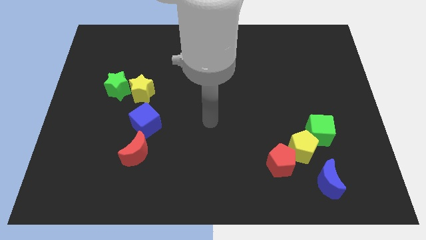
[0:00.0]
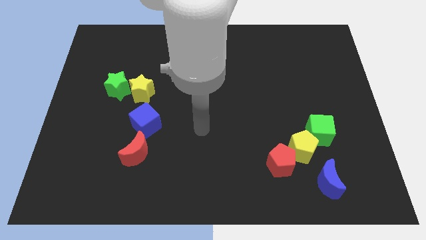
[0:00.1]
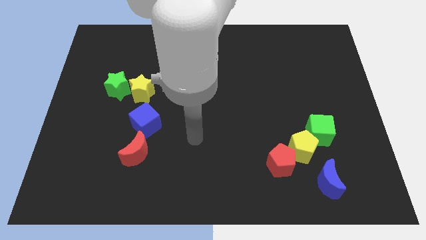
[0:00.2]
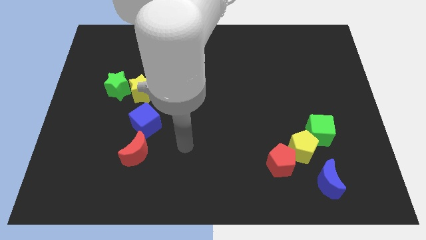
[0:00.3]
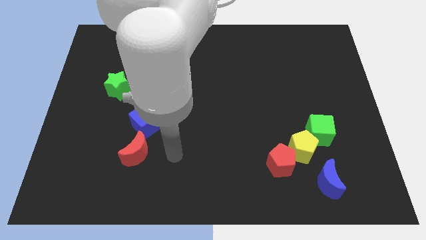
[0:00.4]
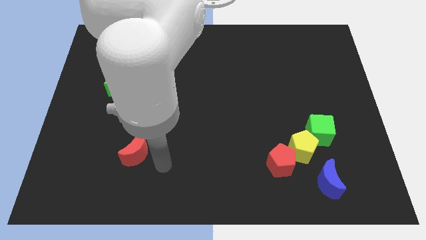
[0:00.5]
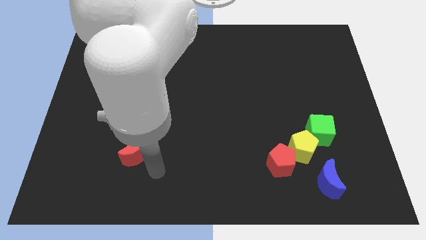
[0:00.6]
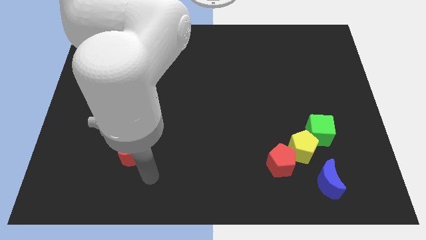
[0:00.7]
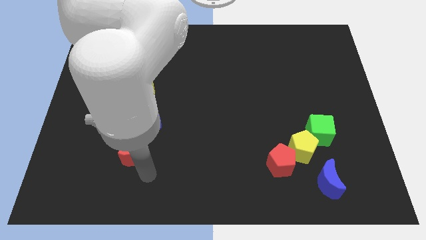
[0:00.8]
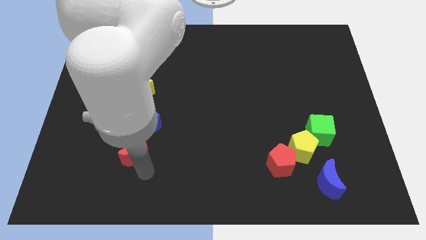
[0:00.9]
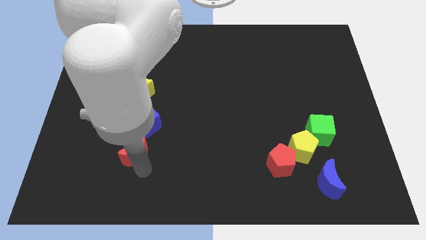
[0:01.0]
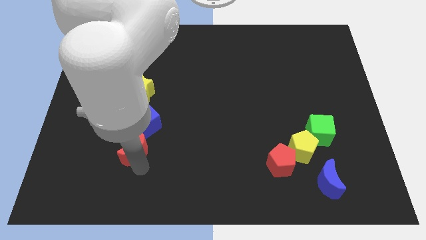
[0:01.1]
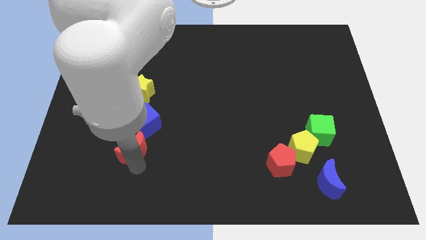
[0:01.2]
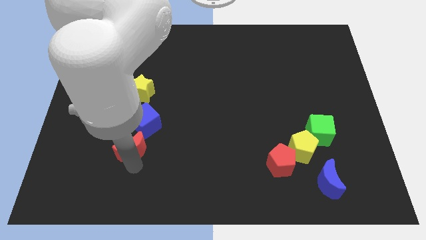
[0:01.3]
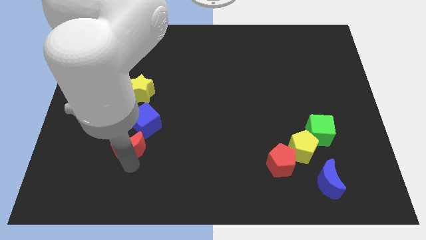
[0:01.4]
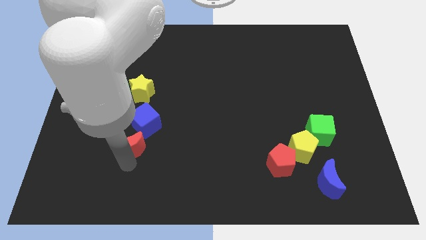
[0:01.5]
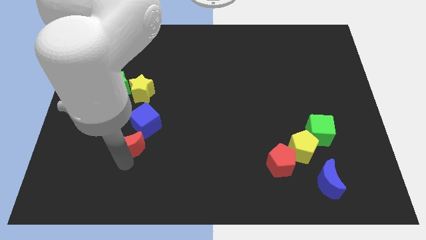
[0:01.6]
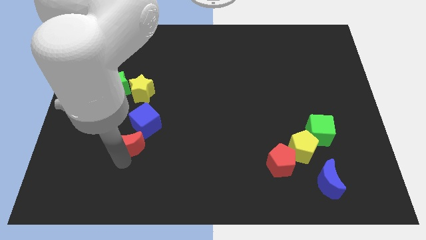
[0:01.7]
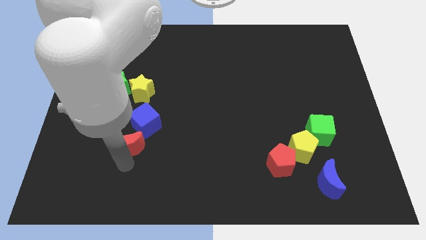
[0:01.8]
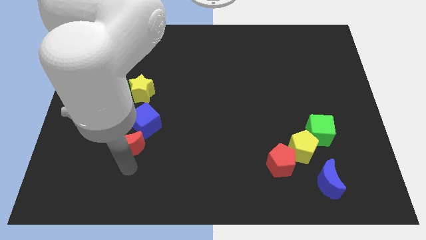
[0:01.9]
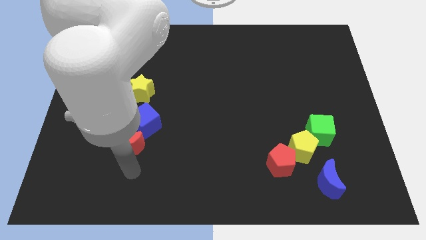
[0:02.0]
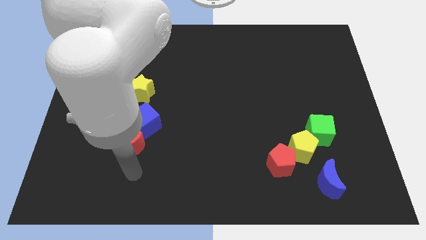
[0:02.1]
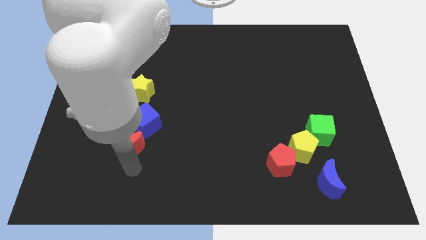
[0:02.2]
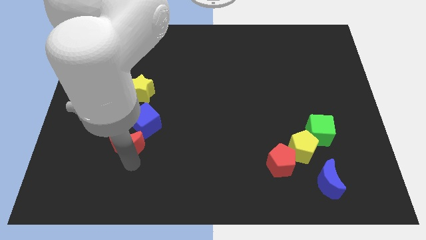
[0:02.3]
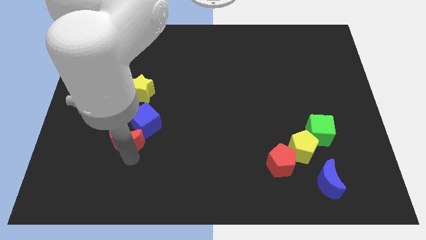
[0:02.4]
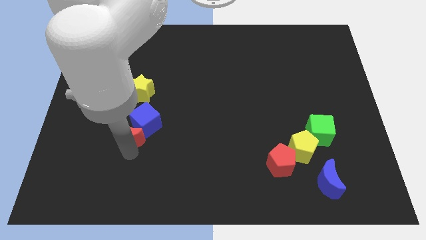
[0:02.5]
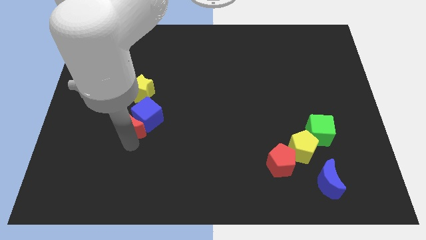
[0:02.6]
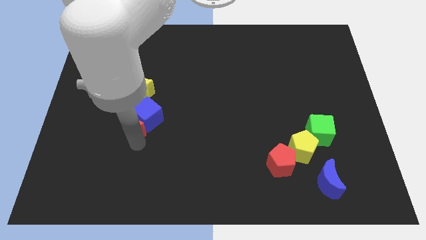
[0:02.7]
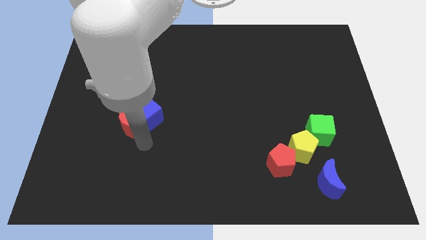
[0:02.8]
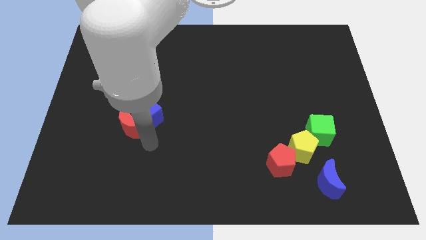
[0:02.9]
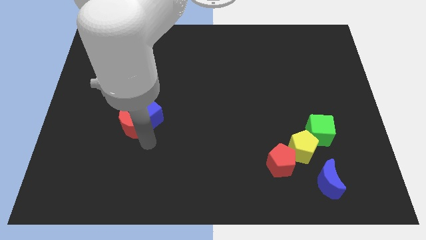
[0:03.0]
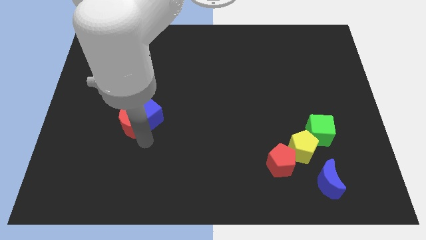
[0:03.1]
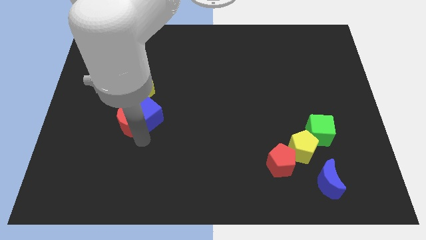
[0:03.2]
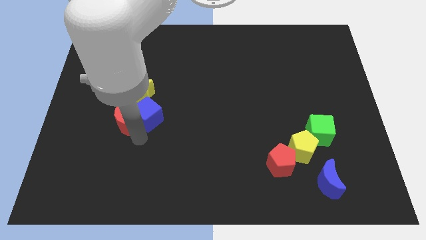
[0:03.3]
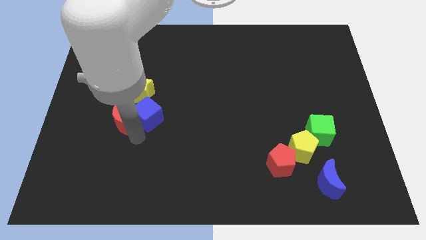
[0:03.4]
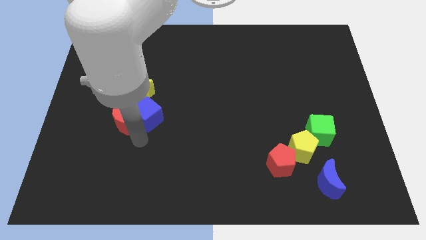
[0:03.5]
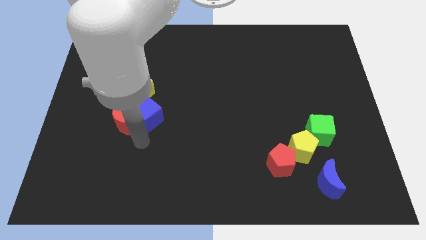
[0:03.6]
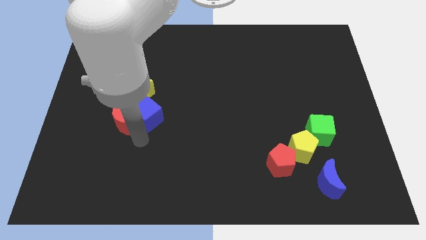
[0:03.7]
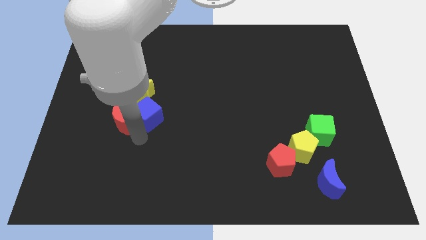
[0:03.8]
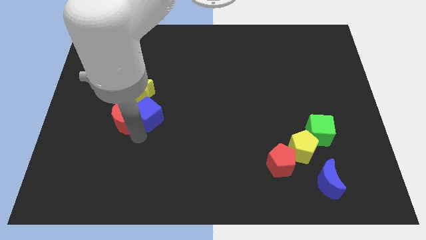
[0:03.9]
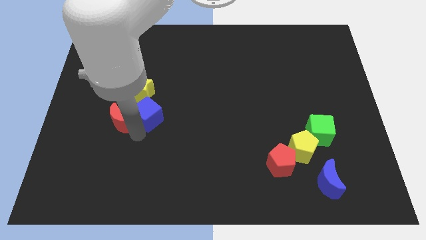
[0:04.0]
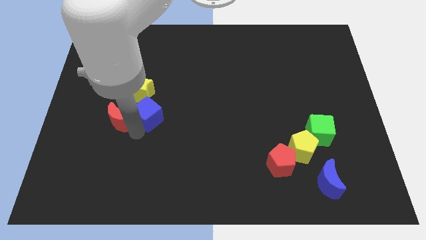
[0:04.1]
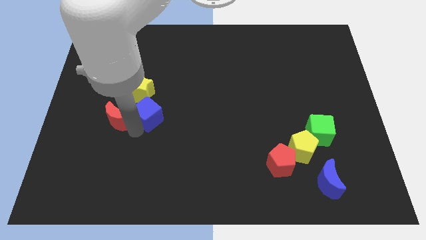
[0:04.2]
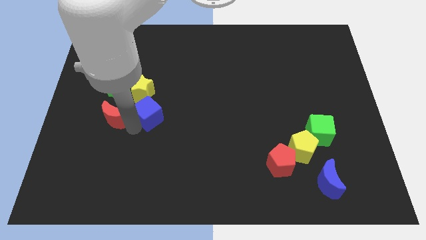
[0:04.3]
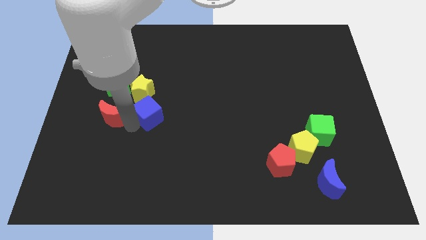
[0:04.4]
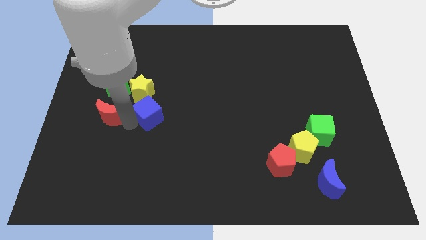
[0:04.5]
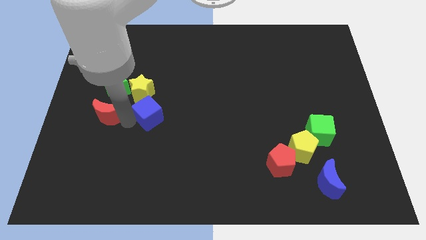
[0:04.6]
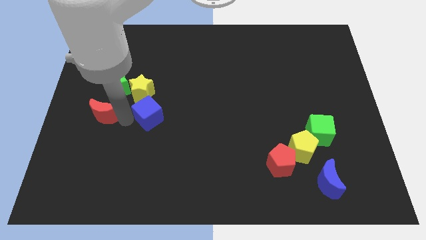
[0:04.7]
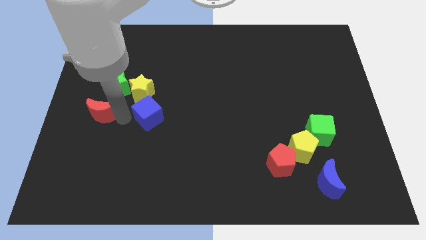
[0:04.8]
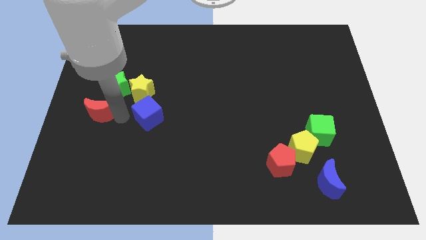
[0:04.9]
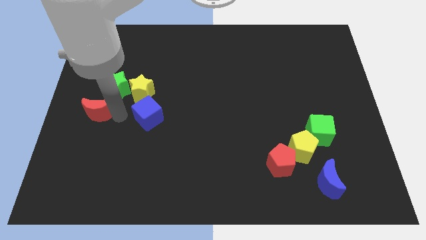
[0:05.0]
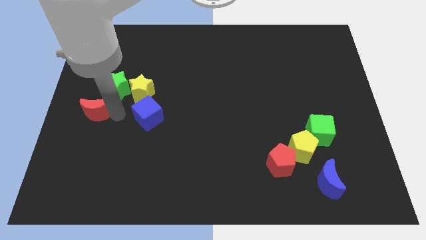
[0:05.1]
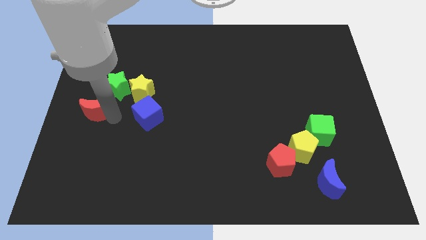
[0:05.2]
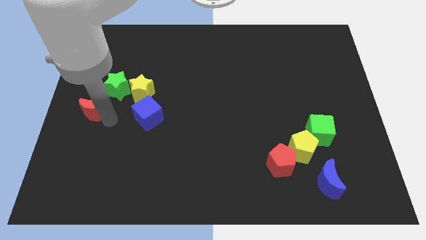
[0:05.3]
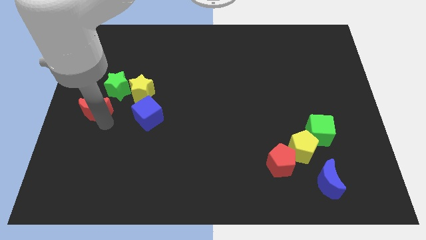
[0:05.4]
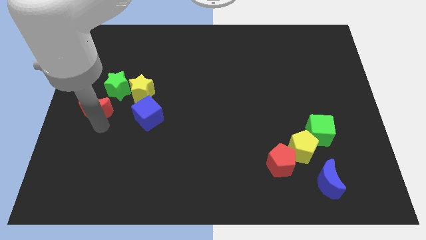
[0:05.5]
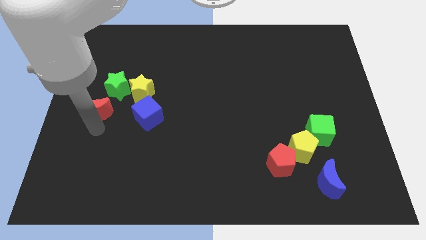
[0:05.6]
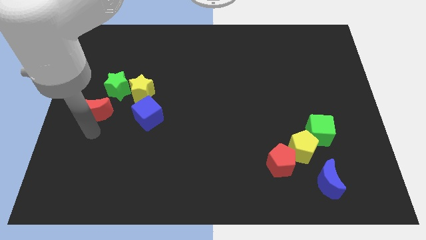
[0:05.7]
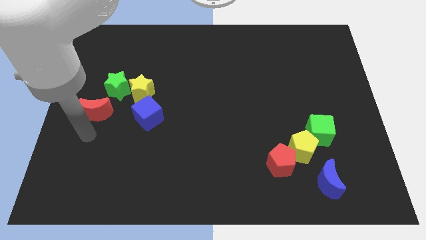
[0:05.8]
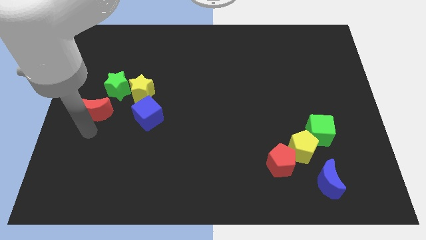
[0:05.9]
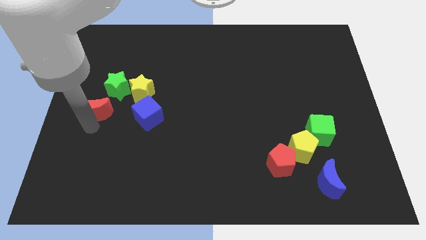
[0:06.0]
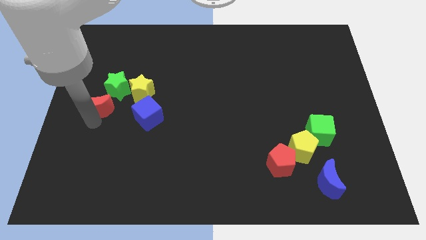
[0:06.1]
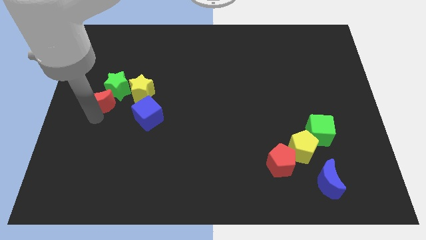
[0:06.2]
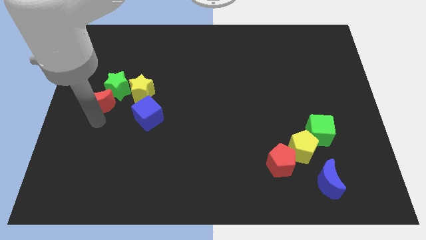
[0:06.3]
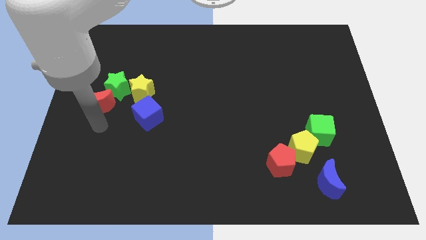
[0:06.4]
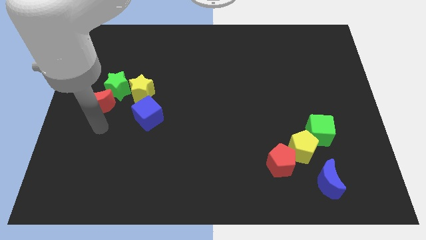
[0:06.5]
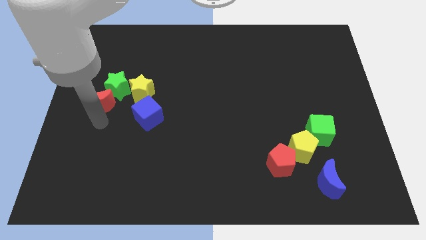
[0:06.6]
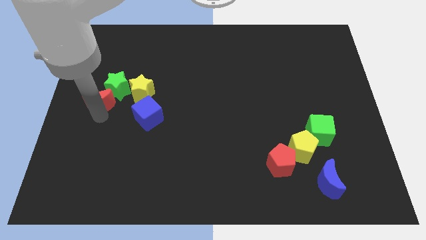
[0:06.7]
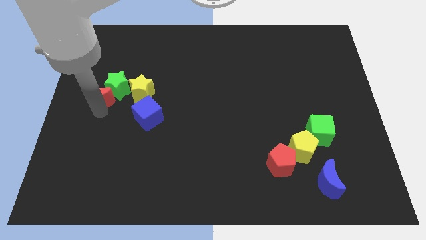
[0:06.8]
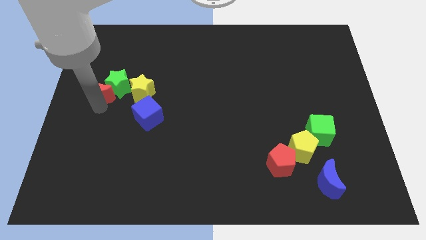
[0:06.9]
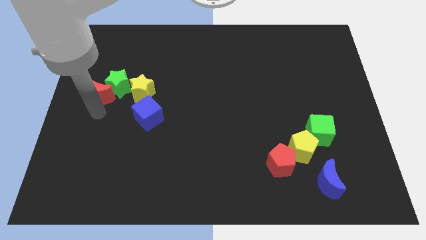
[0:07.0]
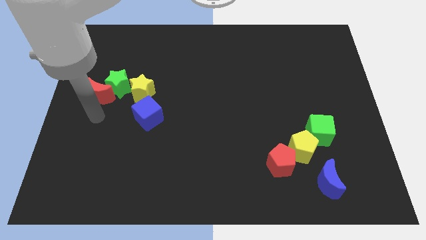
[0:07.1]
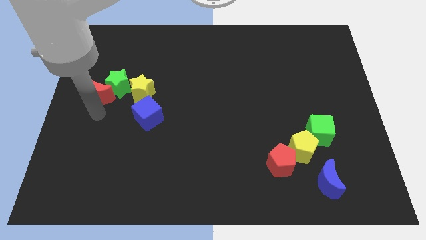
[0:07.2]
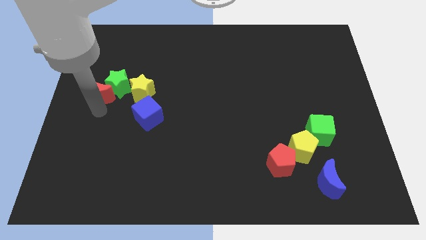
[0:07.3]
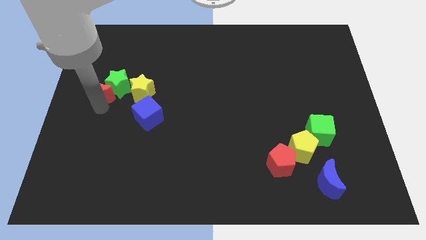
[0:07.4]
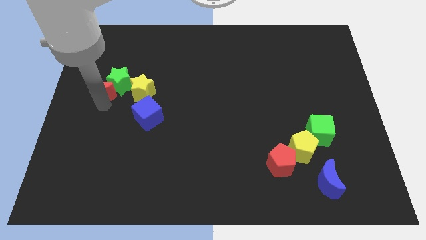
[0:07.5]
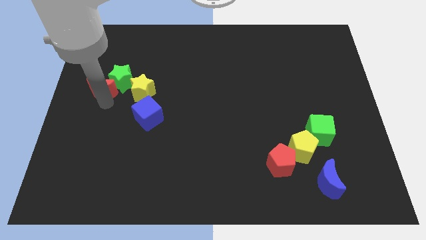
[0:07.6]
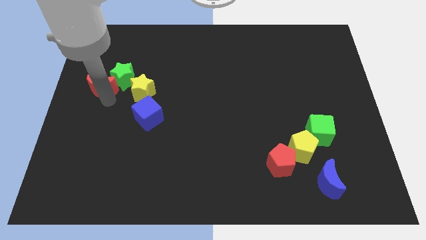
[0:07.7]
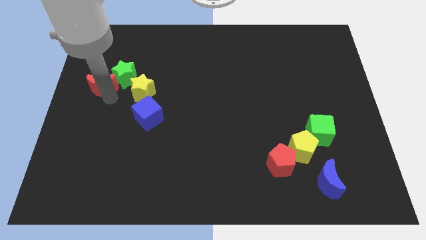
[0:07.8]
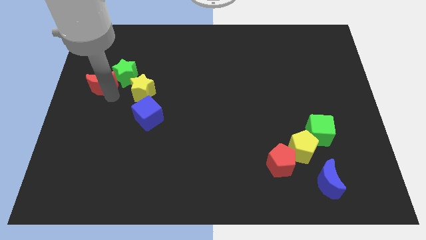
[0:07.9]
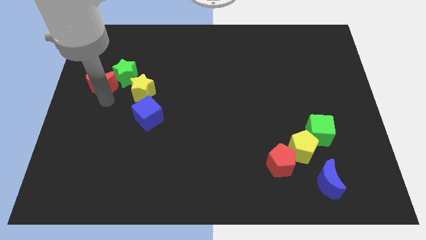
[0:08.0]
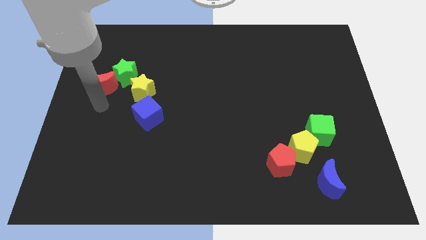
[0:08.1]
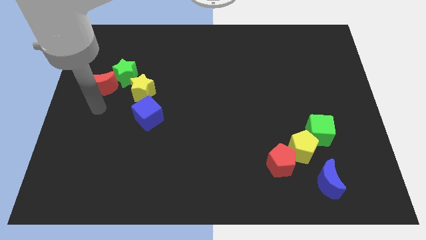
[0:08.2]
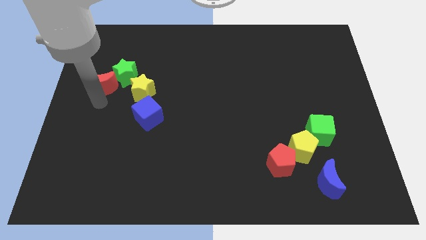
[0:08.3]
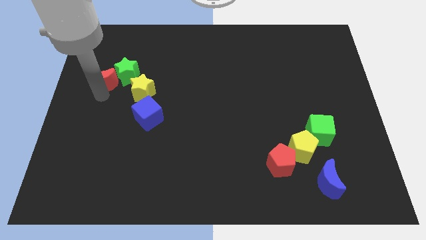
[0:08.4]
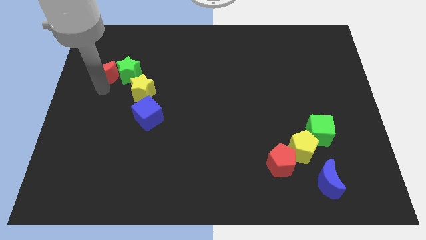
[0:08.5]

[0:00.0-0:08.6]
move the red moon to the top left of the green star
